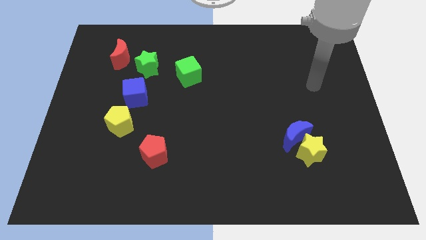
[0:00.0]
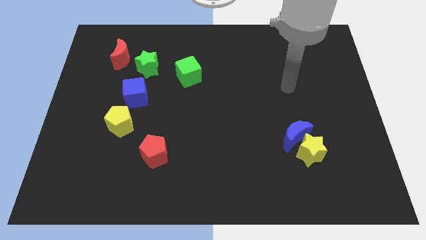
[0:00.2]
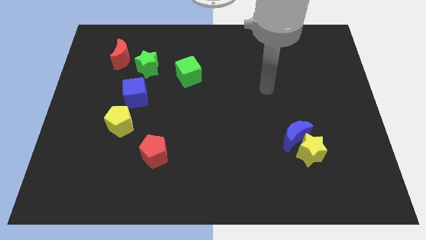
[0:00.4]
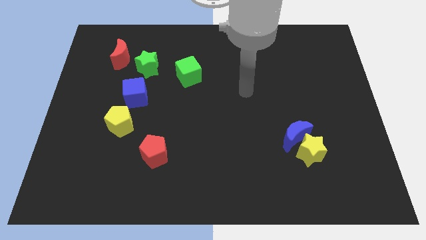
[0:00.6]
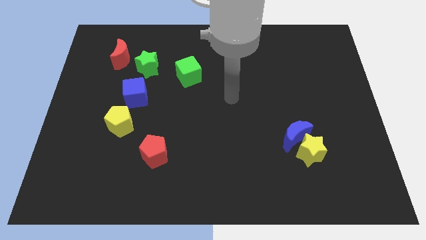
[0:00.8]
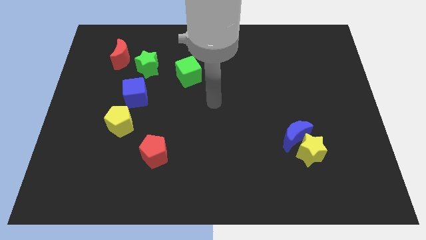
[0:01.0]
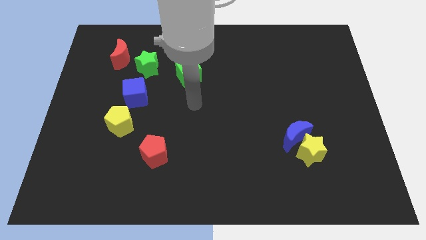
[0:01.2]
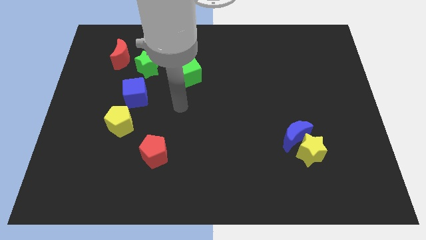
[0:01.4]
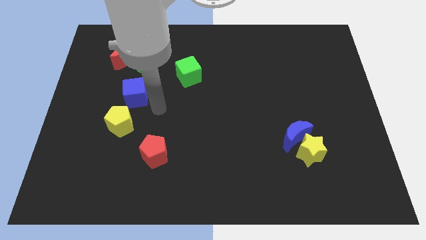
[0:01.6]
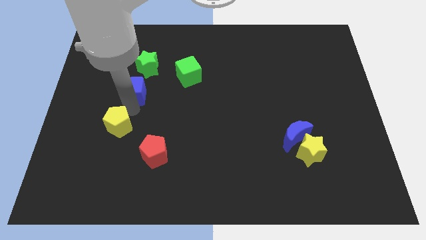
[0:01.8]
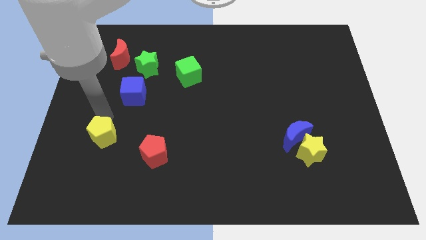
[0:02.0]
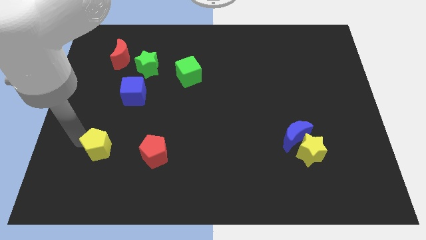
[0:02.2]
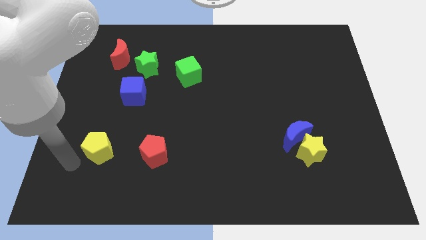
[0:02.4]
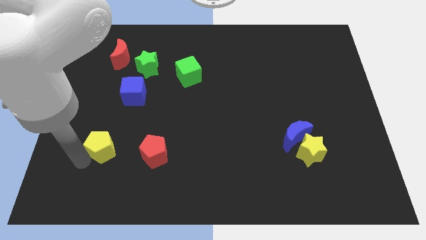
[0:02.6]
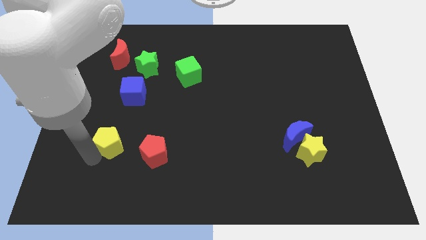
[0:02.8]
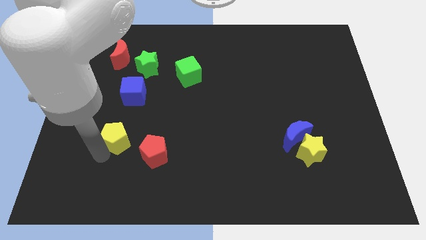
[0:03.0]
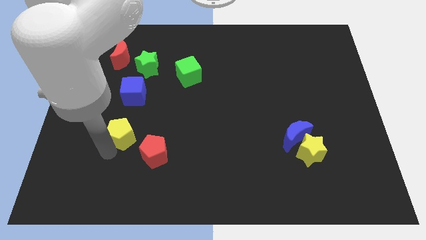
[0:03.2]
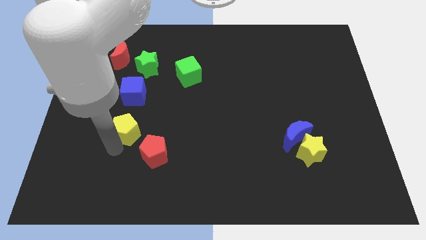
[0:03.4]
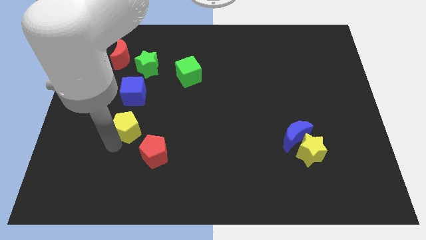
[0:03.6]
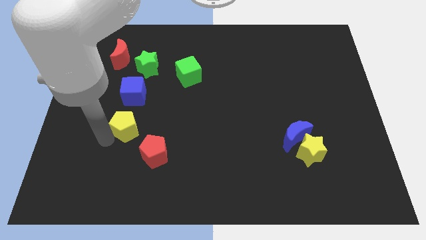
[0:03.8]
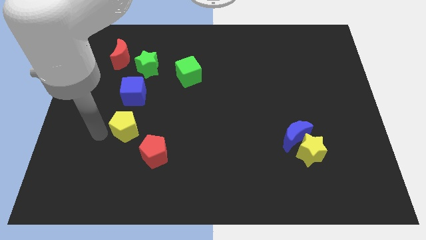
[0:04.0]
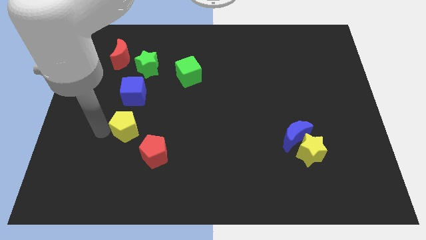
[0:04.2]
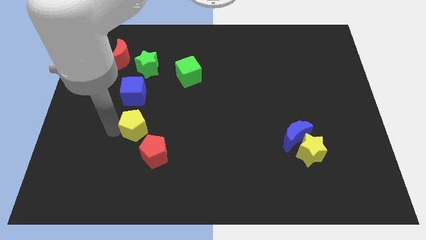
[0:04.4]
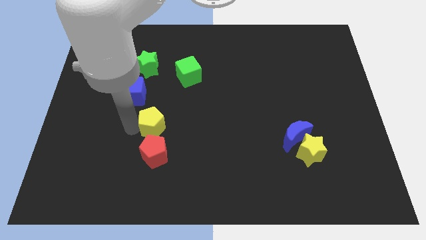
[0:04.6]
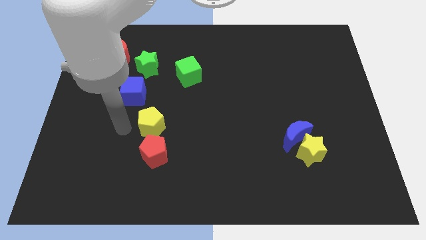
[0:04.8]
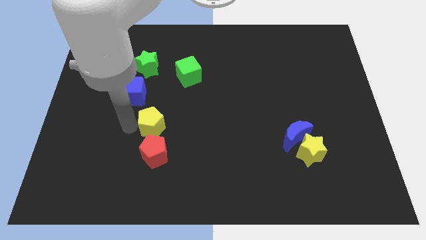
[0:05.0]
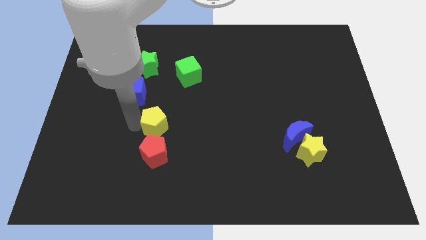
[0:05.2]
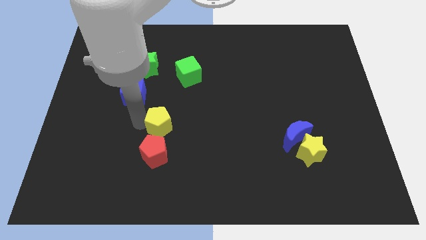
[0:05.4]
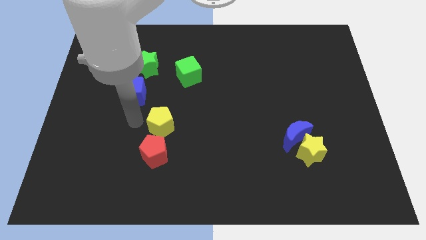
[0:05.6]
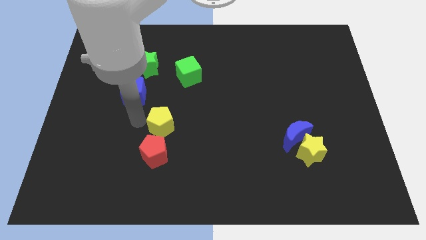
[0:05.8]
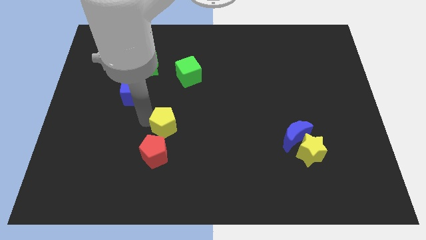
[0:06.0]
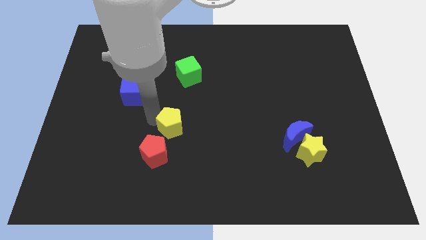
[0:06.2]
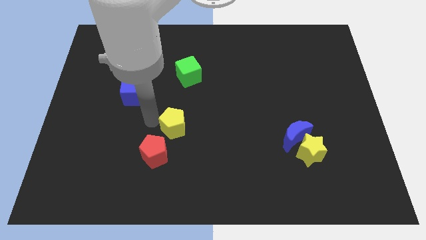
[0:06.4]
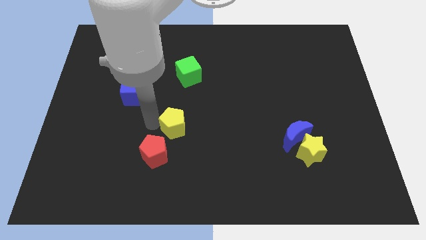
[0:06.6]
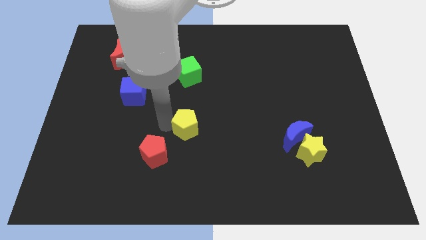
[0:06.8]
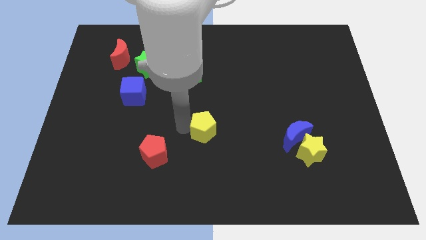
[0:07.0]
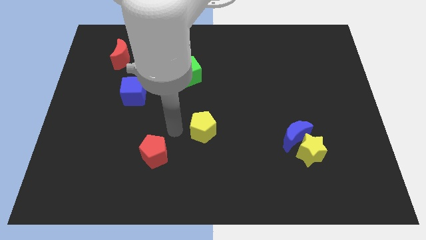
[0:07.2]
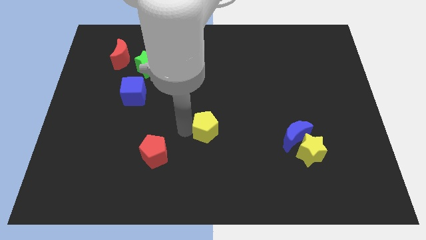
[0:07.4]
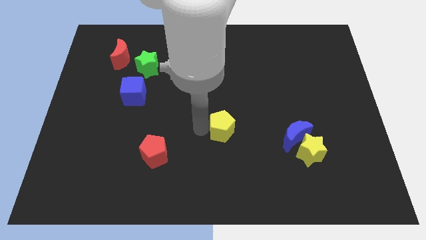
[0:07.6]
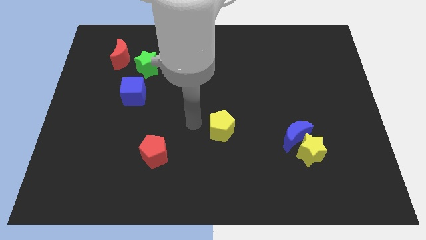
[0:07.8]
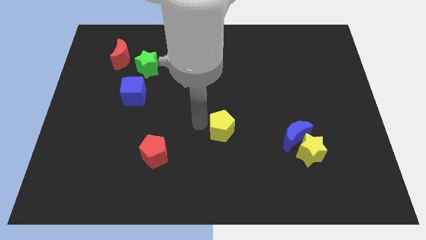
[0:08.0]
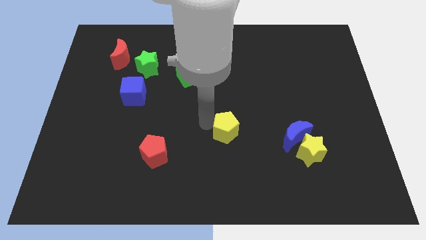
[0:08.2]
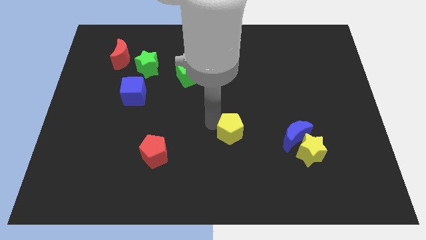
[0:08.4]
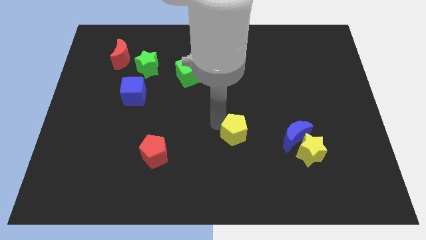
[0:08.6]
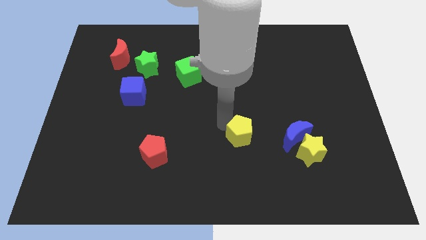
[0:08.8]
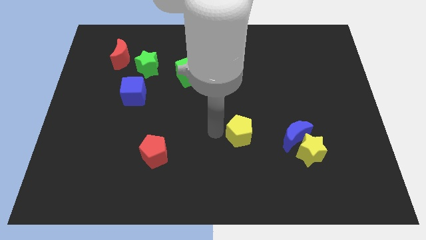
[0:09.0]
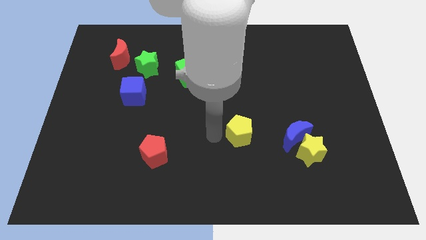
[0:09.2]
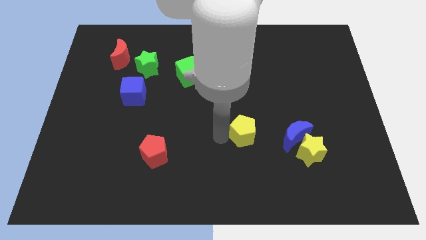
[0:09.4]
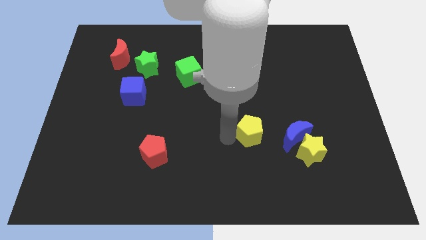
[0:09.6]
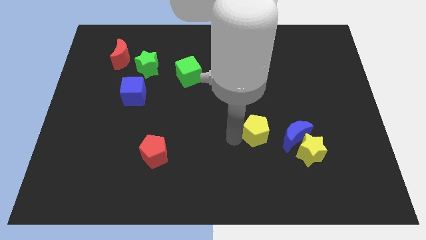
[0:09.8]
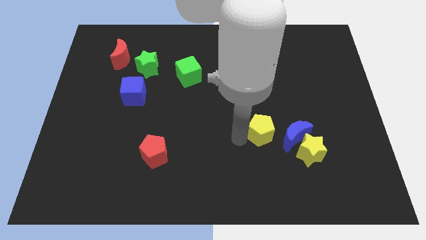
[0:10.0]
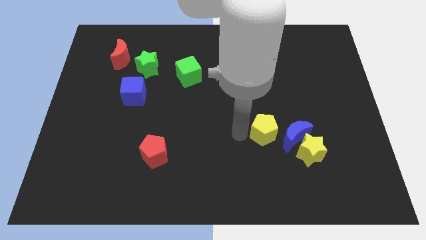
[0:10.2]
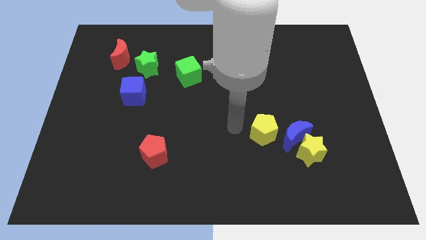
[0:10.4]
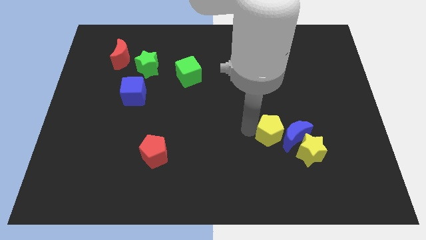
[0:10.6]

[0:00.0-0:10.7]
put the yellow pentagon next to the blue moon

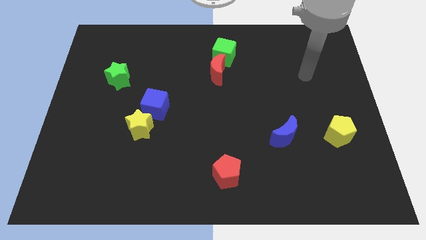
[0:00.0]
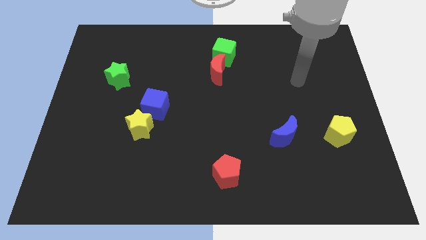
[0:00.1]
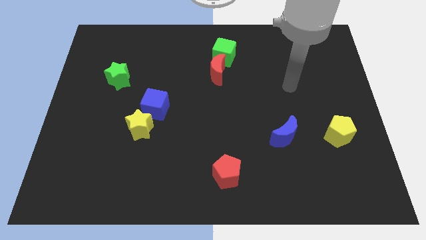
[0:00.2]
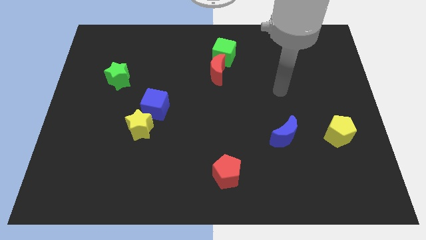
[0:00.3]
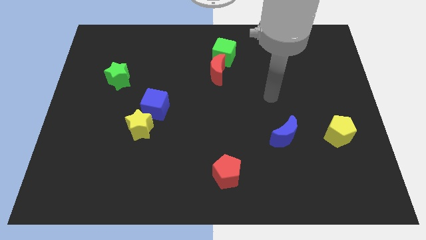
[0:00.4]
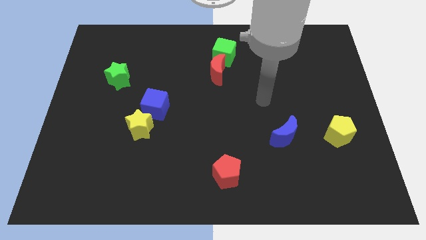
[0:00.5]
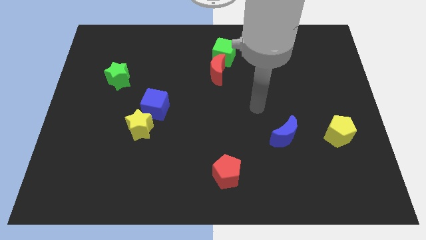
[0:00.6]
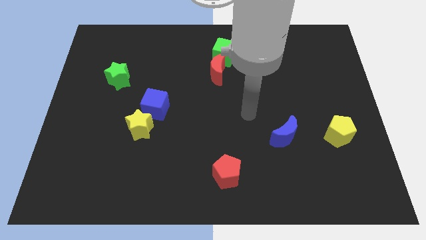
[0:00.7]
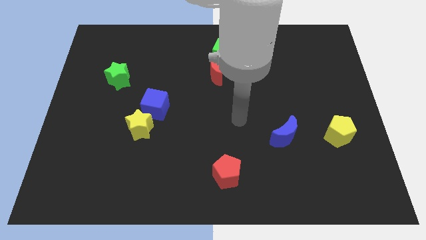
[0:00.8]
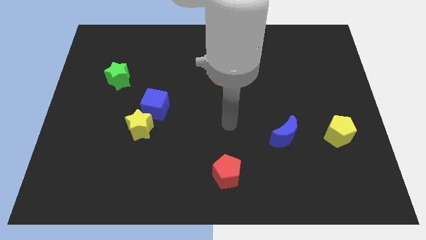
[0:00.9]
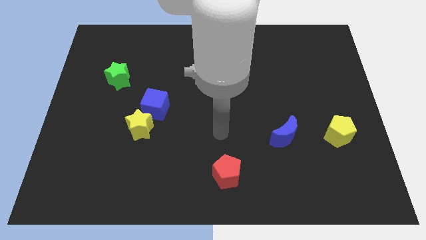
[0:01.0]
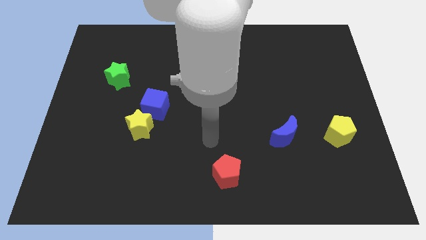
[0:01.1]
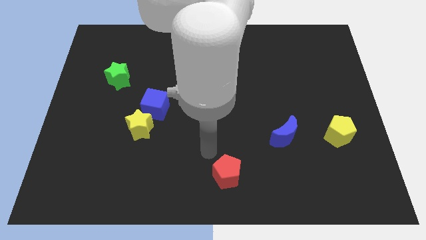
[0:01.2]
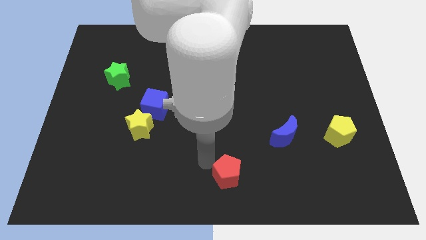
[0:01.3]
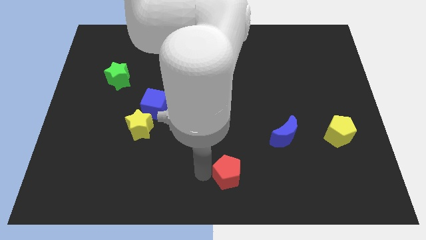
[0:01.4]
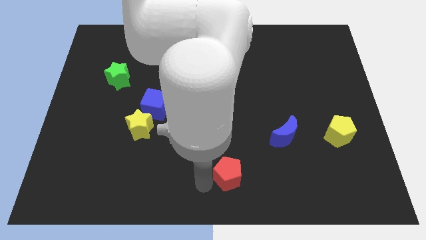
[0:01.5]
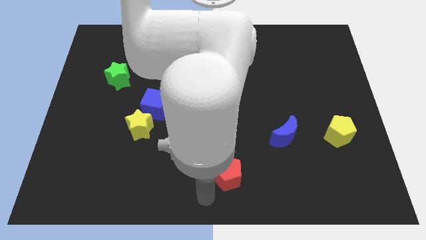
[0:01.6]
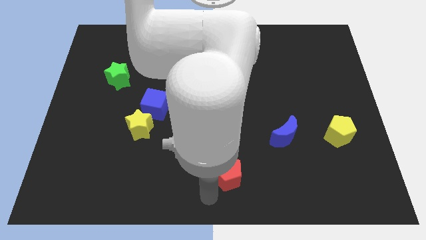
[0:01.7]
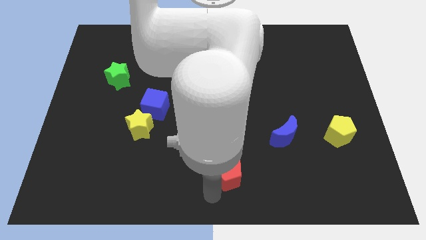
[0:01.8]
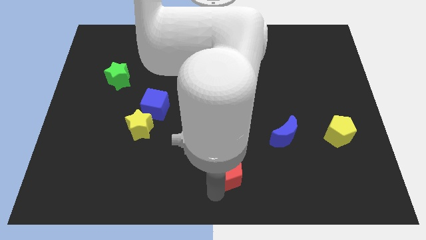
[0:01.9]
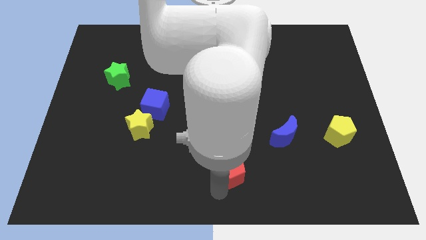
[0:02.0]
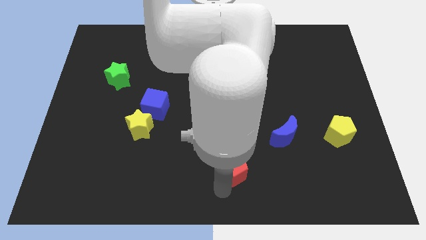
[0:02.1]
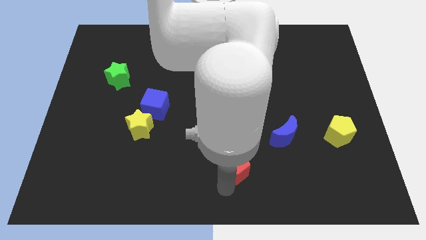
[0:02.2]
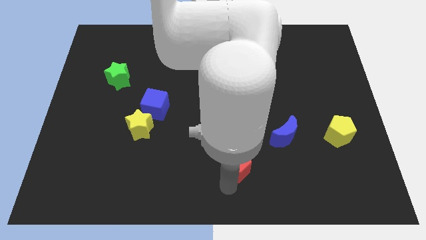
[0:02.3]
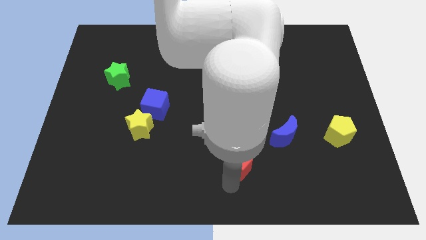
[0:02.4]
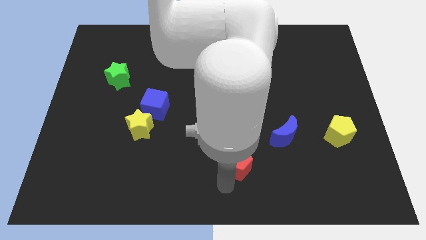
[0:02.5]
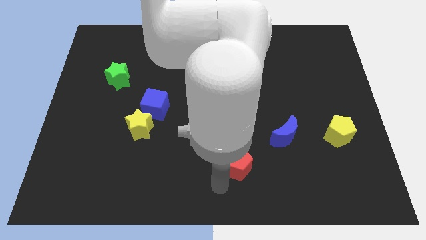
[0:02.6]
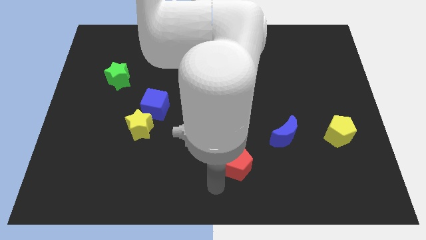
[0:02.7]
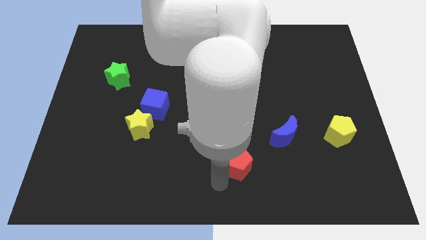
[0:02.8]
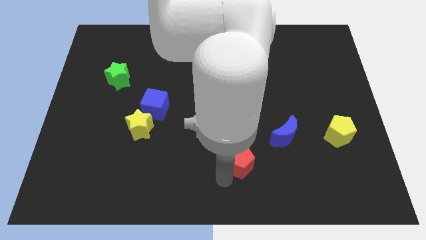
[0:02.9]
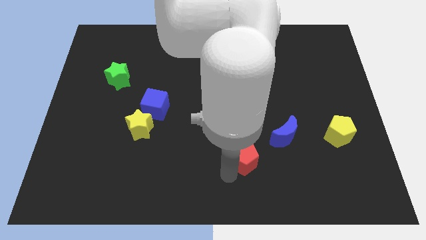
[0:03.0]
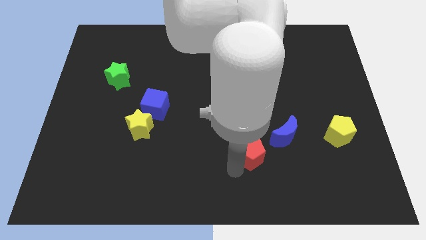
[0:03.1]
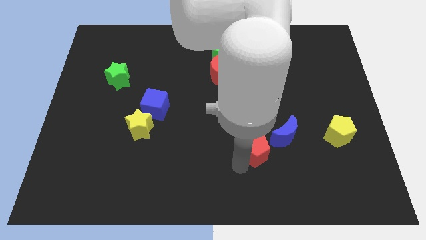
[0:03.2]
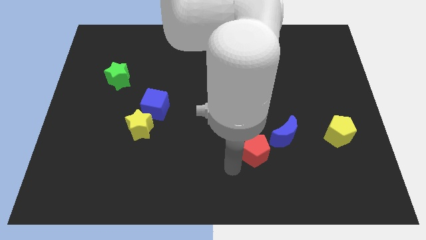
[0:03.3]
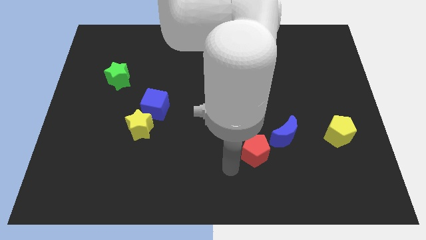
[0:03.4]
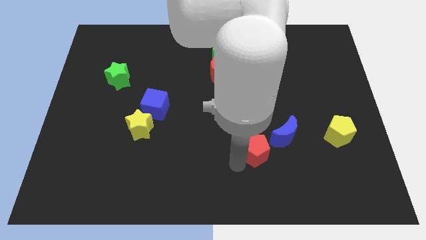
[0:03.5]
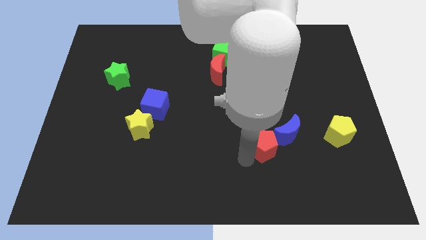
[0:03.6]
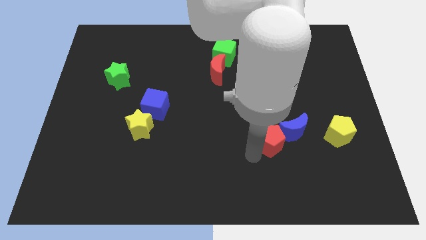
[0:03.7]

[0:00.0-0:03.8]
put the red pentagon towards the blue moon
